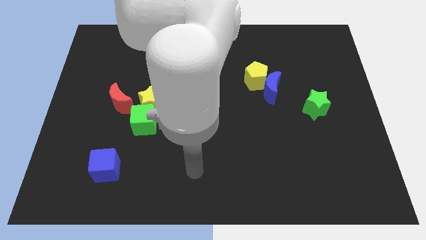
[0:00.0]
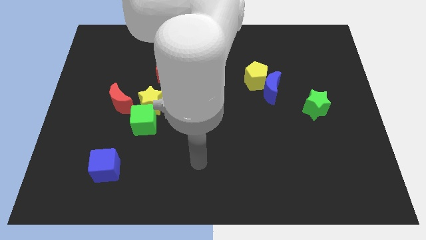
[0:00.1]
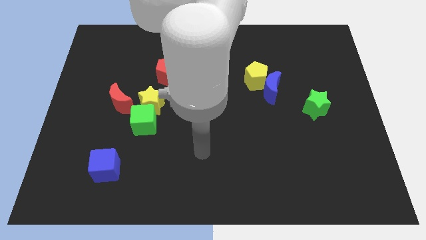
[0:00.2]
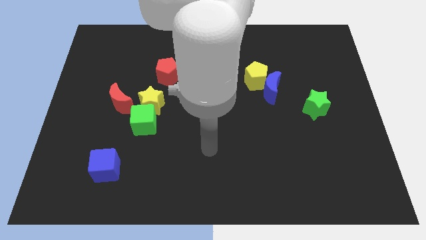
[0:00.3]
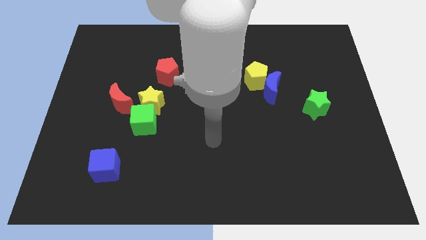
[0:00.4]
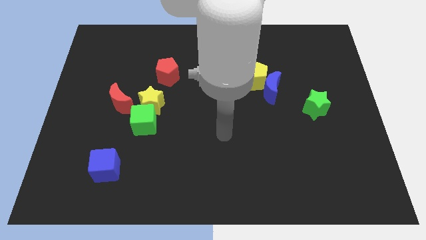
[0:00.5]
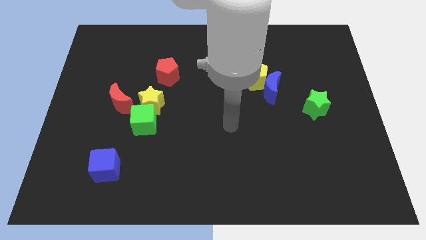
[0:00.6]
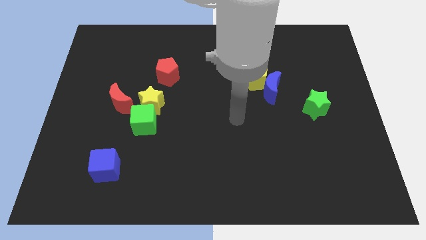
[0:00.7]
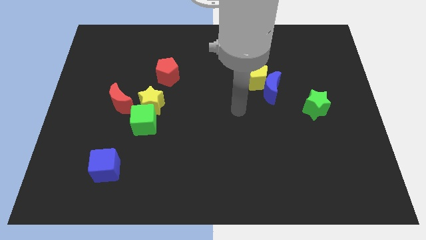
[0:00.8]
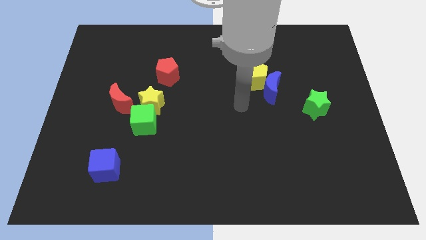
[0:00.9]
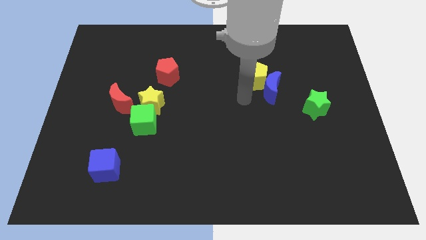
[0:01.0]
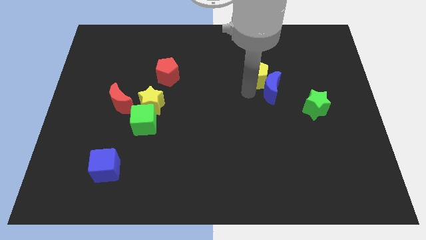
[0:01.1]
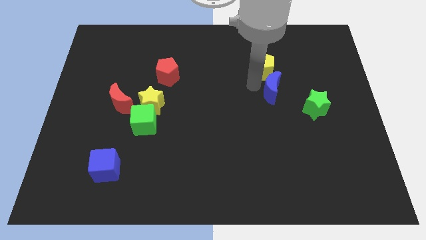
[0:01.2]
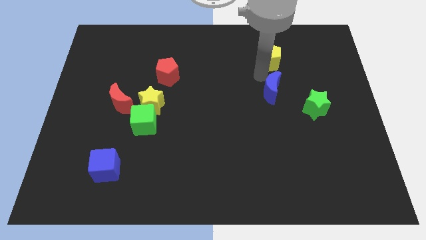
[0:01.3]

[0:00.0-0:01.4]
pull the blue moon apart from the yellow pentagon

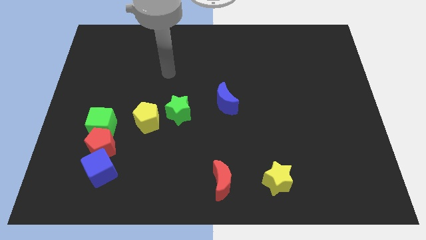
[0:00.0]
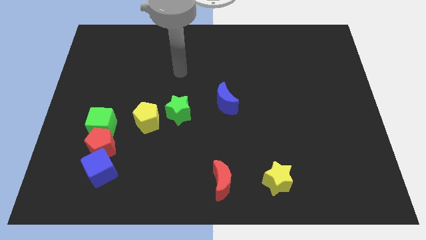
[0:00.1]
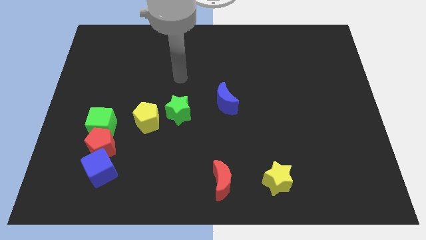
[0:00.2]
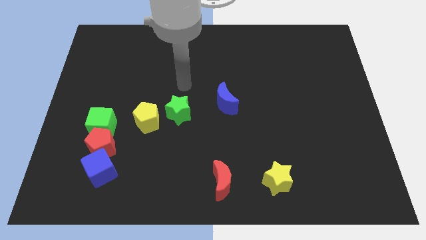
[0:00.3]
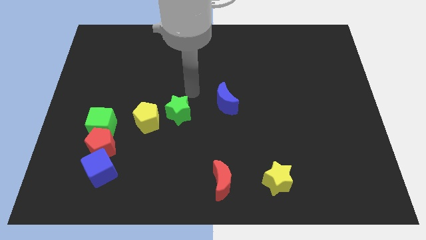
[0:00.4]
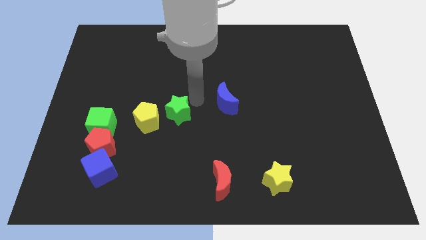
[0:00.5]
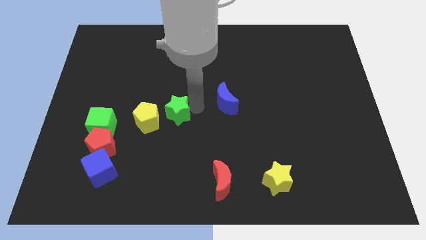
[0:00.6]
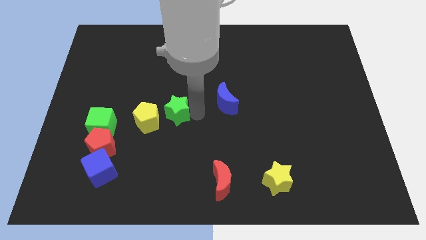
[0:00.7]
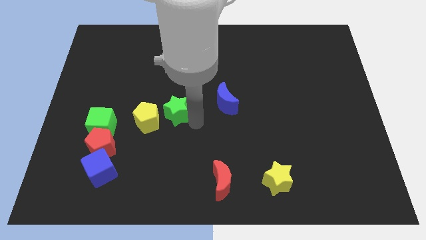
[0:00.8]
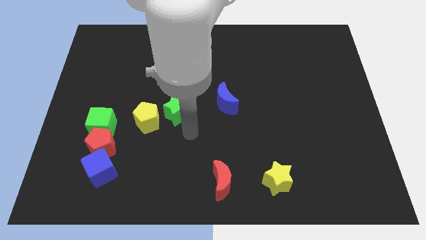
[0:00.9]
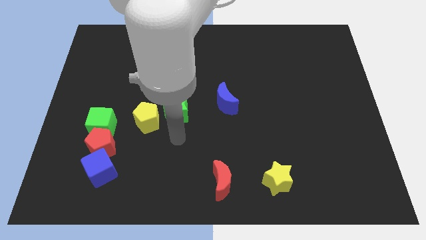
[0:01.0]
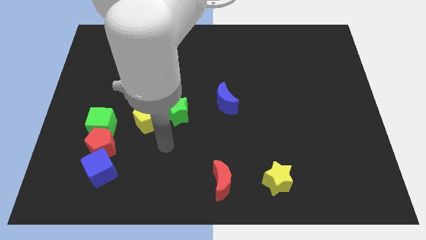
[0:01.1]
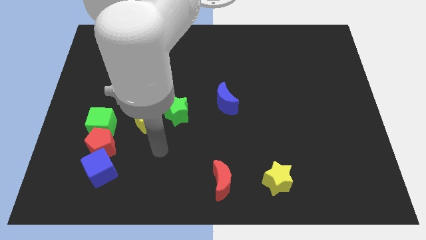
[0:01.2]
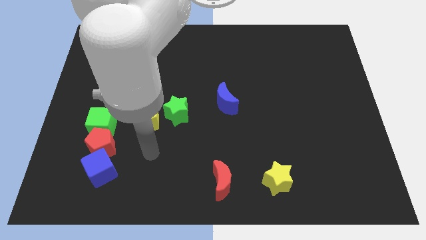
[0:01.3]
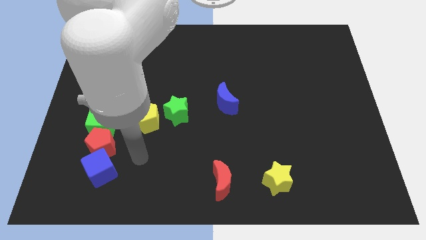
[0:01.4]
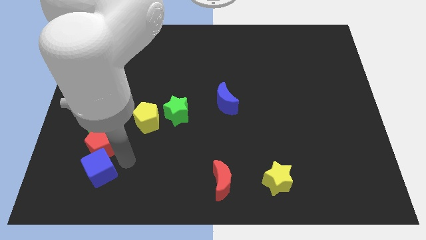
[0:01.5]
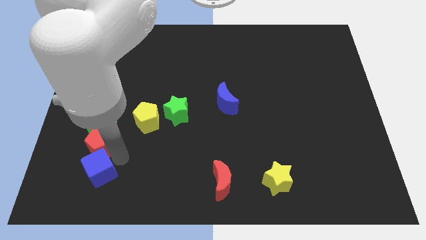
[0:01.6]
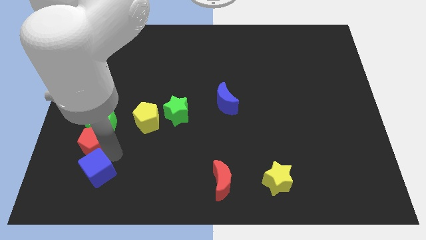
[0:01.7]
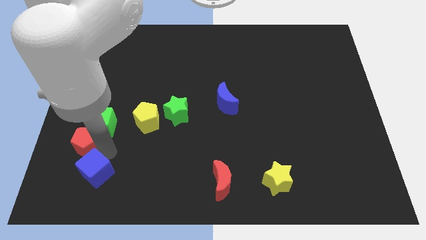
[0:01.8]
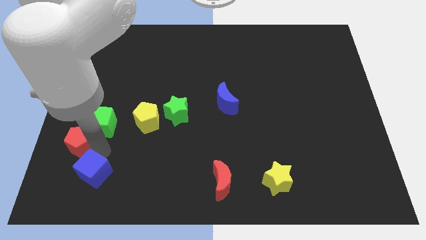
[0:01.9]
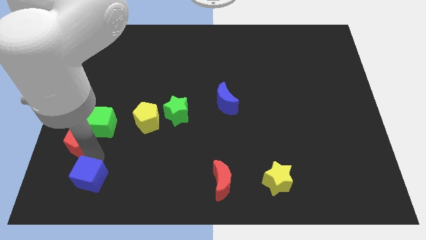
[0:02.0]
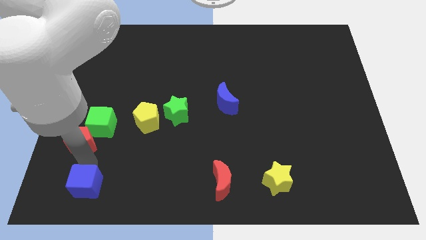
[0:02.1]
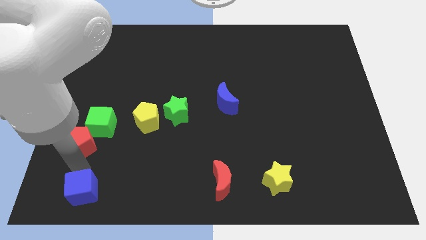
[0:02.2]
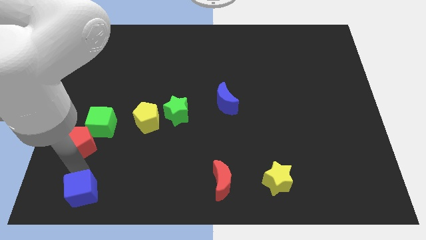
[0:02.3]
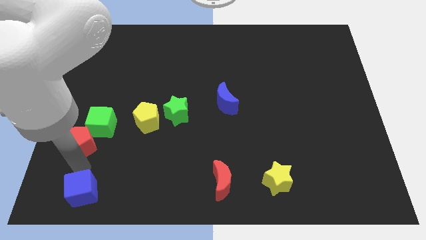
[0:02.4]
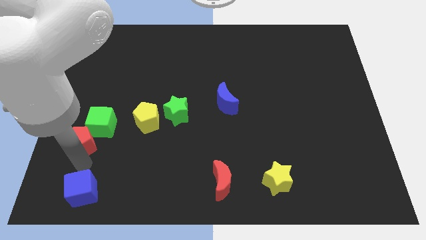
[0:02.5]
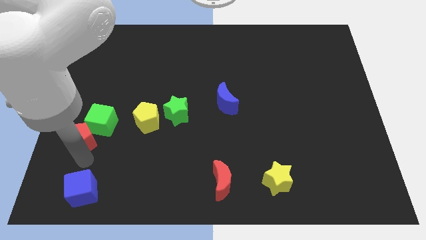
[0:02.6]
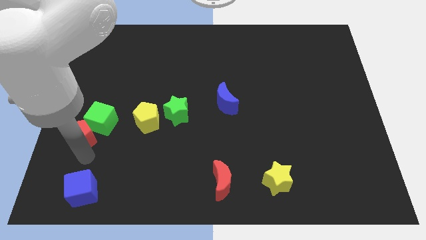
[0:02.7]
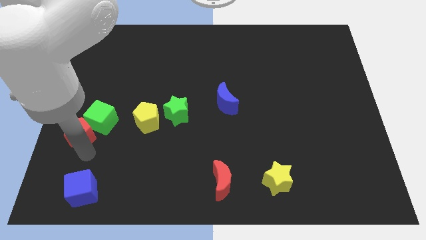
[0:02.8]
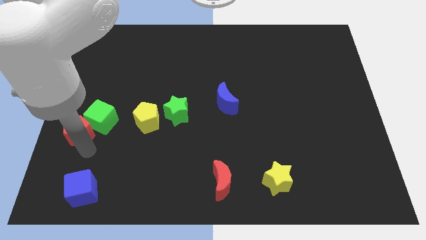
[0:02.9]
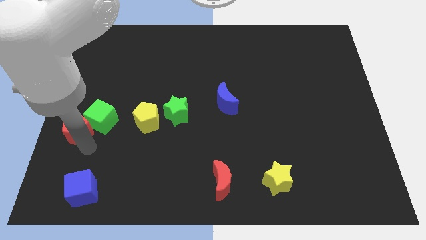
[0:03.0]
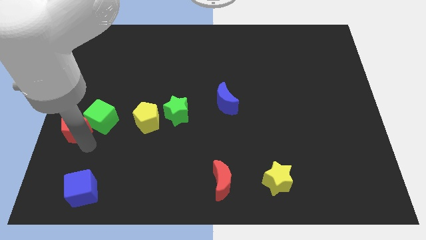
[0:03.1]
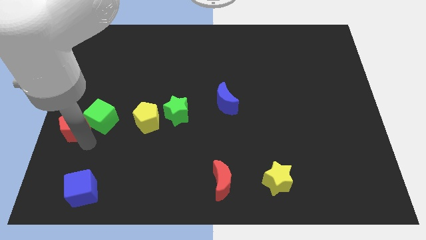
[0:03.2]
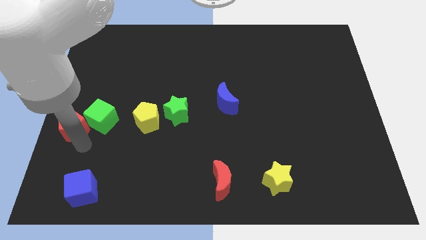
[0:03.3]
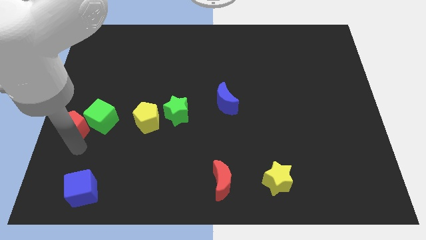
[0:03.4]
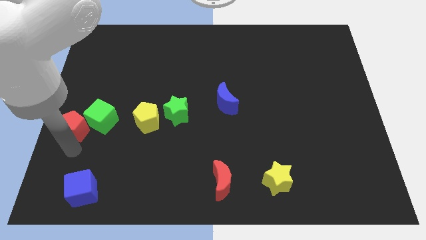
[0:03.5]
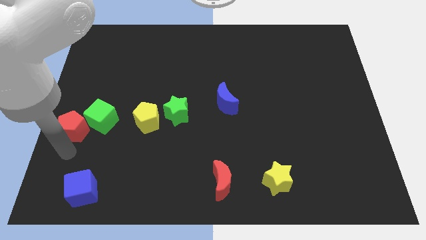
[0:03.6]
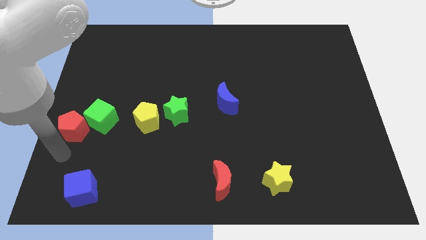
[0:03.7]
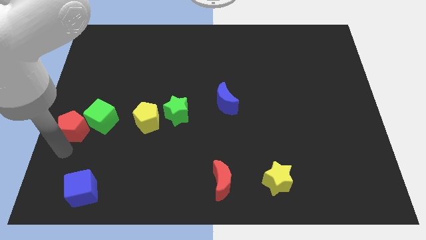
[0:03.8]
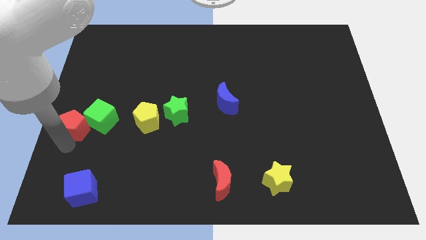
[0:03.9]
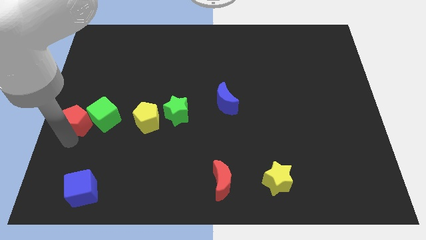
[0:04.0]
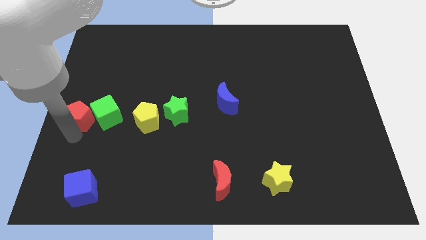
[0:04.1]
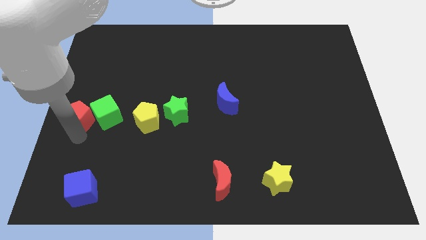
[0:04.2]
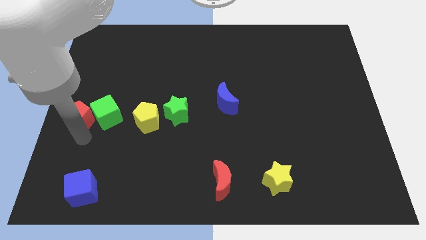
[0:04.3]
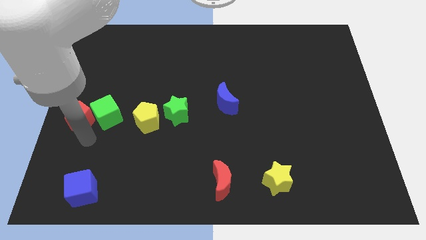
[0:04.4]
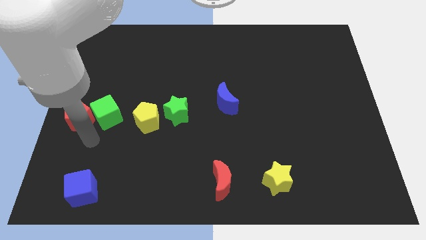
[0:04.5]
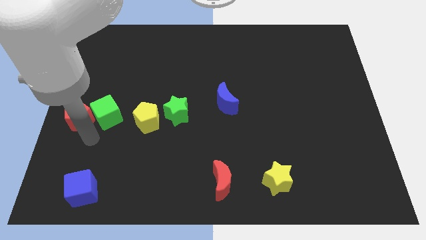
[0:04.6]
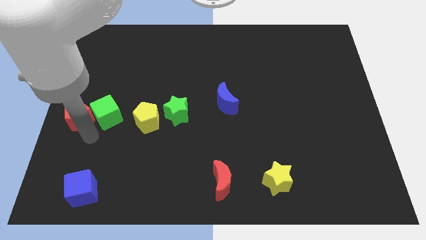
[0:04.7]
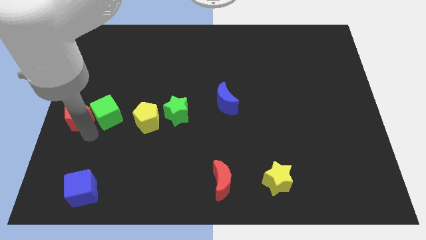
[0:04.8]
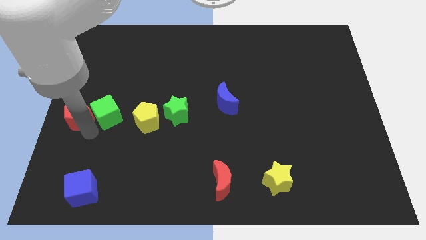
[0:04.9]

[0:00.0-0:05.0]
pull the red pentagon apart from the green cube and blue cube

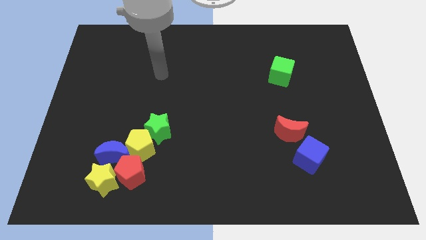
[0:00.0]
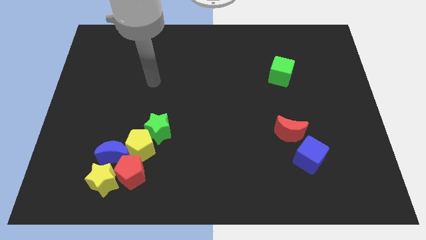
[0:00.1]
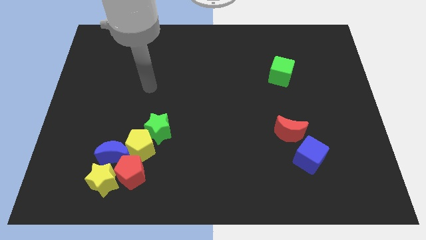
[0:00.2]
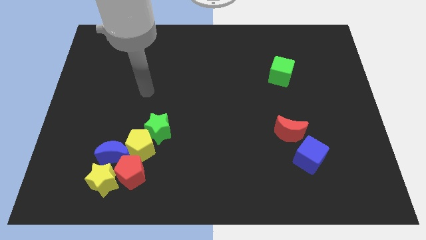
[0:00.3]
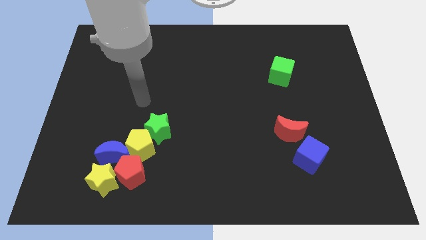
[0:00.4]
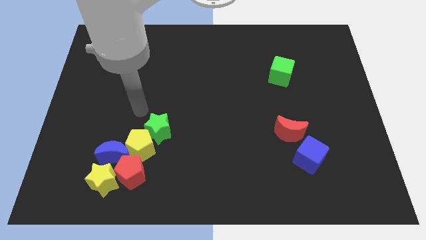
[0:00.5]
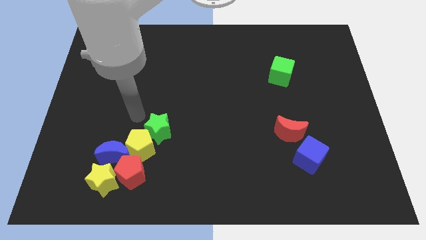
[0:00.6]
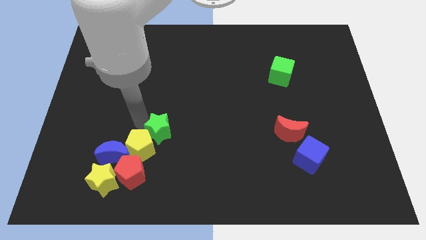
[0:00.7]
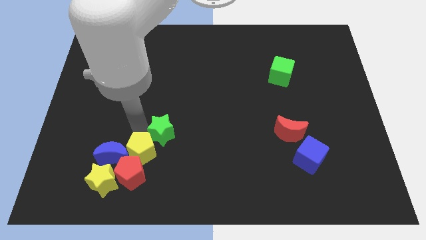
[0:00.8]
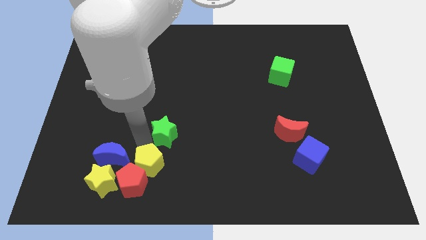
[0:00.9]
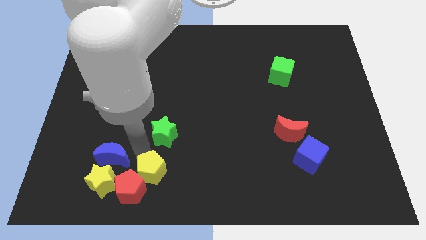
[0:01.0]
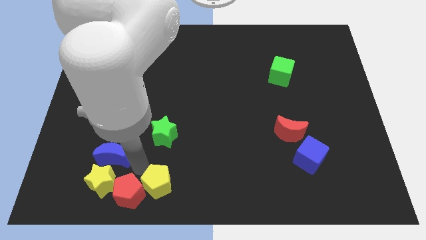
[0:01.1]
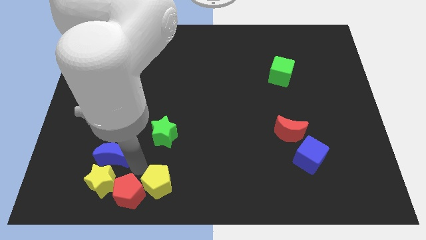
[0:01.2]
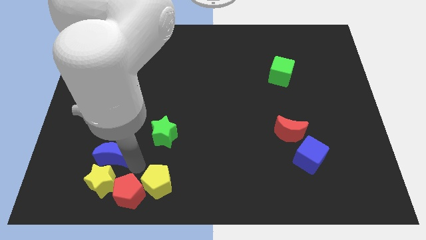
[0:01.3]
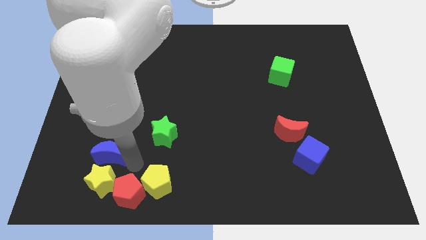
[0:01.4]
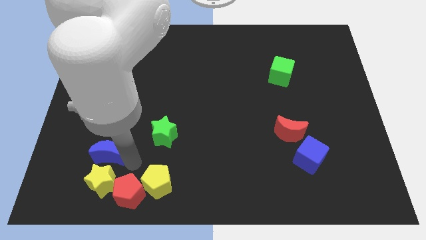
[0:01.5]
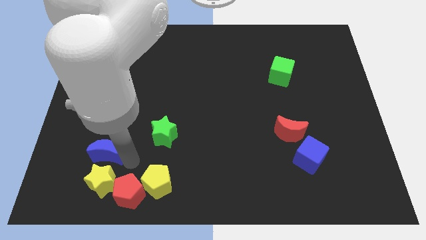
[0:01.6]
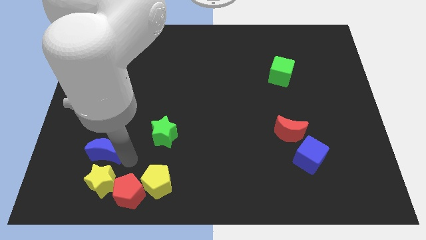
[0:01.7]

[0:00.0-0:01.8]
separate the blue moon from the group

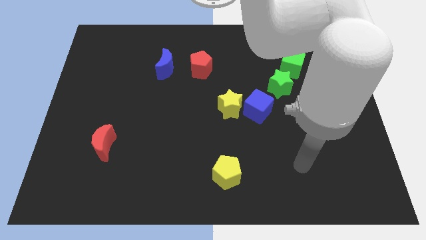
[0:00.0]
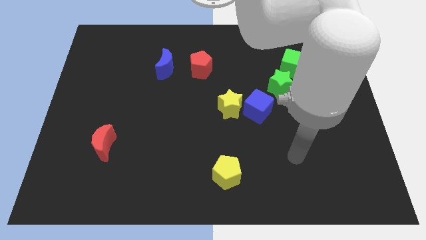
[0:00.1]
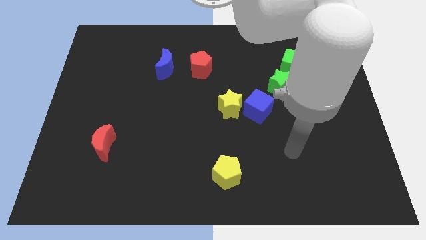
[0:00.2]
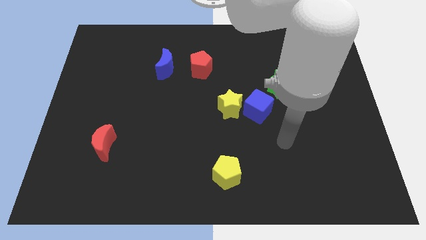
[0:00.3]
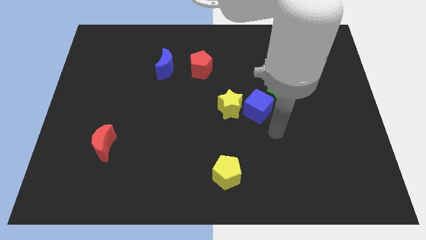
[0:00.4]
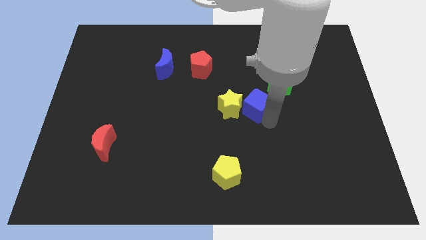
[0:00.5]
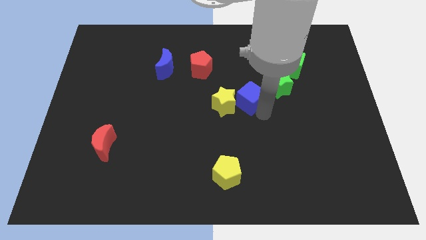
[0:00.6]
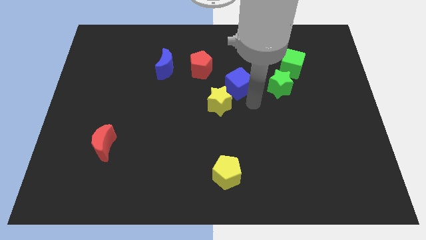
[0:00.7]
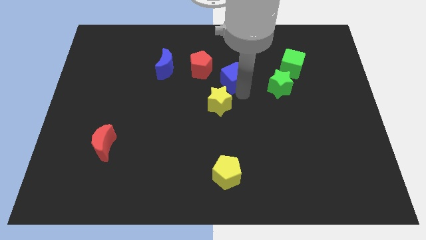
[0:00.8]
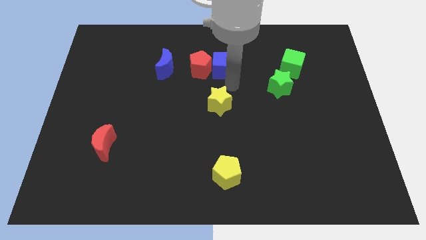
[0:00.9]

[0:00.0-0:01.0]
pull the yellow star apart from the blue cube

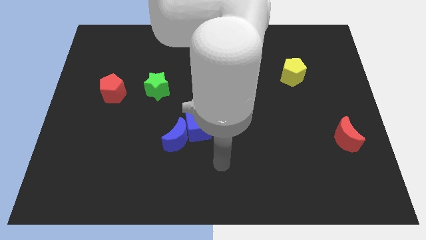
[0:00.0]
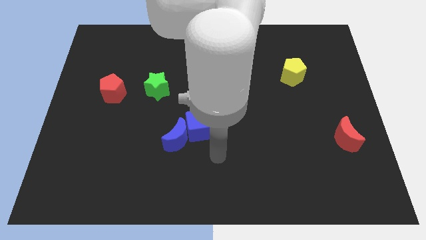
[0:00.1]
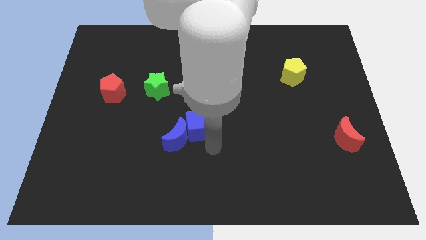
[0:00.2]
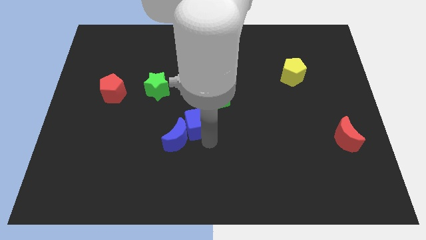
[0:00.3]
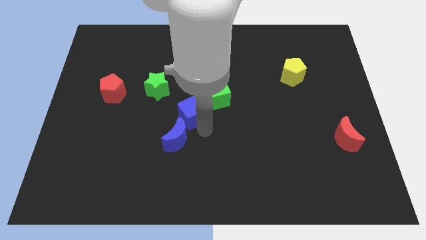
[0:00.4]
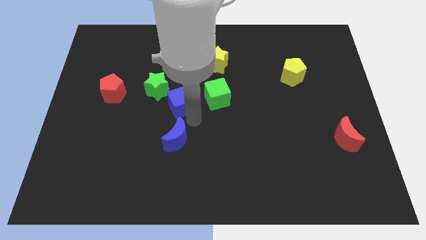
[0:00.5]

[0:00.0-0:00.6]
pull the blue moon apart from the blue cube
